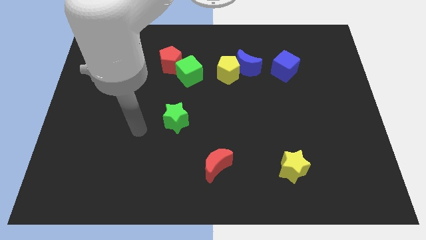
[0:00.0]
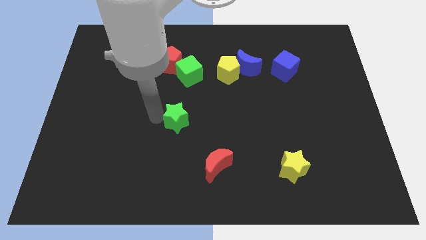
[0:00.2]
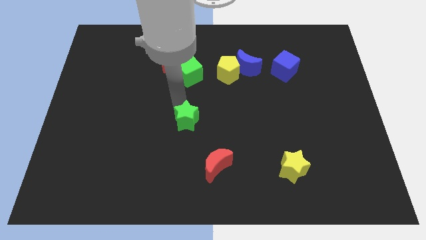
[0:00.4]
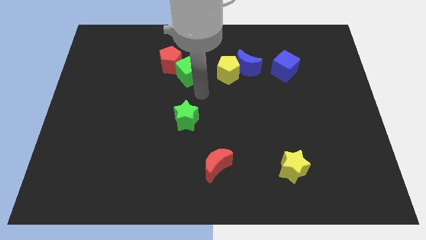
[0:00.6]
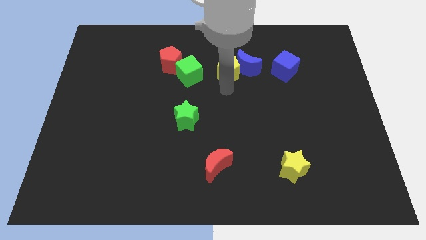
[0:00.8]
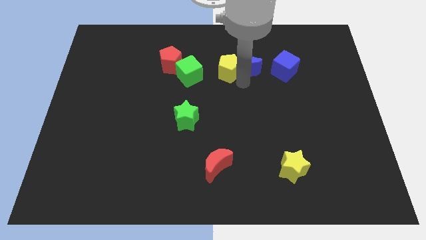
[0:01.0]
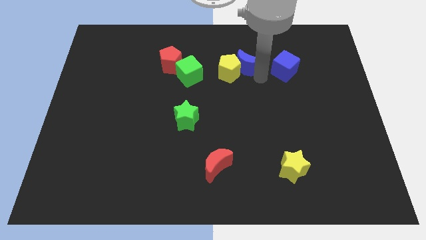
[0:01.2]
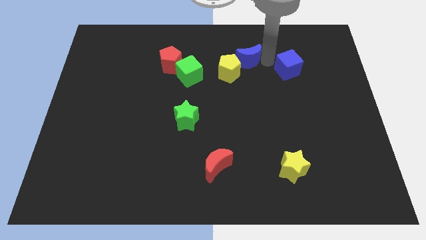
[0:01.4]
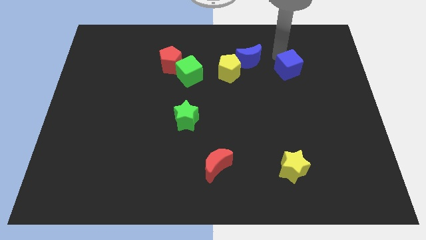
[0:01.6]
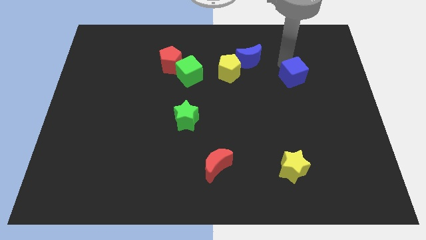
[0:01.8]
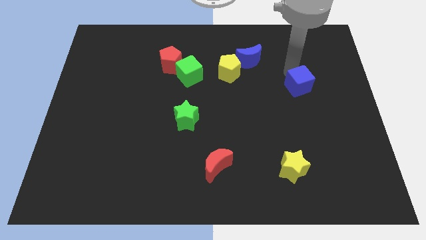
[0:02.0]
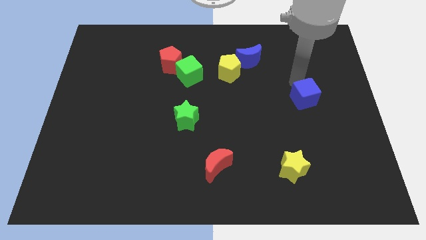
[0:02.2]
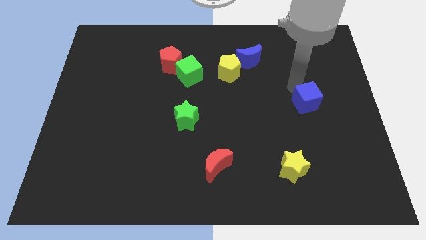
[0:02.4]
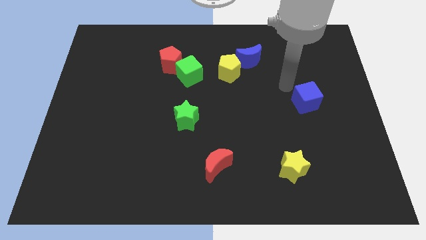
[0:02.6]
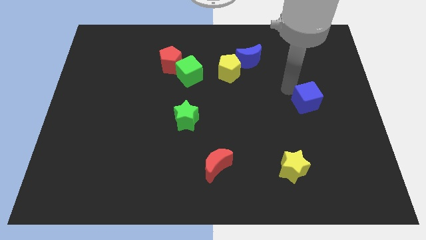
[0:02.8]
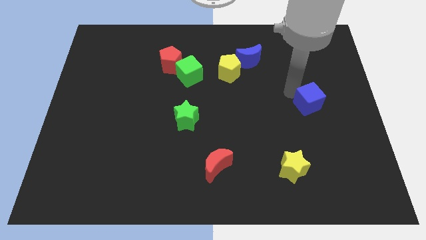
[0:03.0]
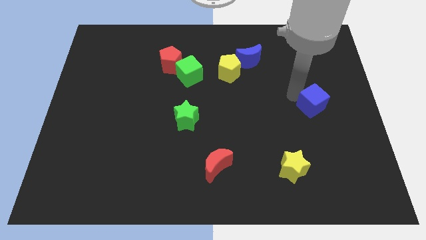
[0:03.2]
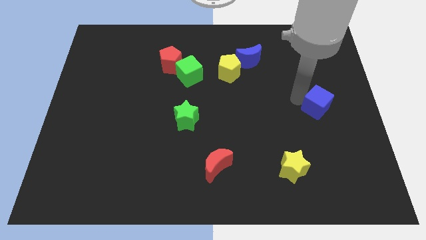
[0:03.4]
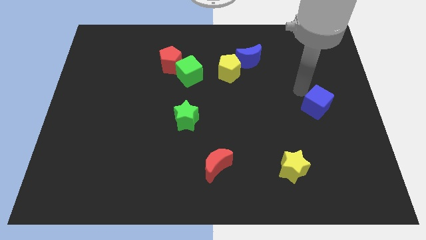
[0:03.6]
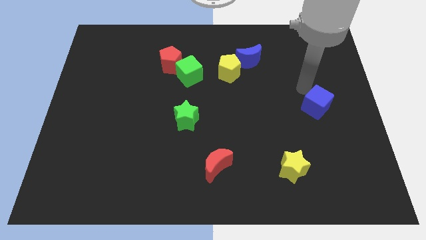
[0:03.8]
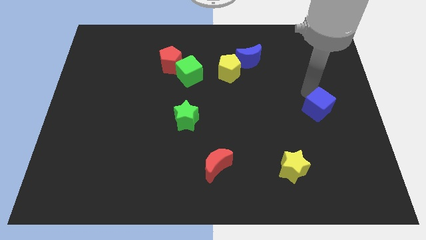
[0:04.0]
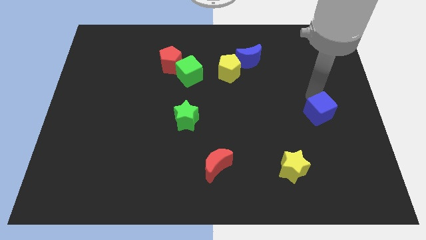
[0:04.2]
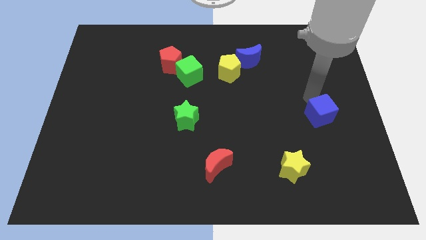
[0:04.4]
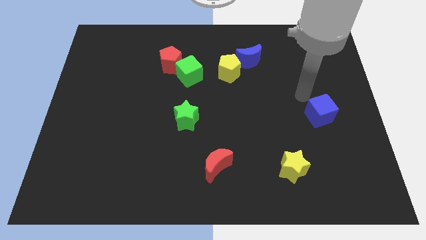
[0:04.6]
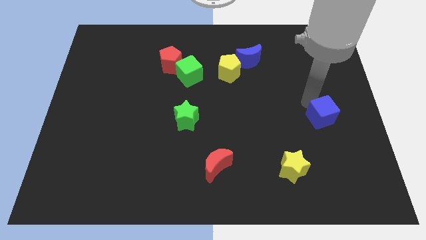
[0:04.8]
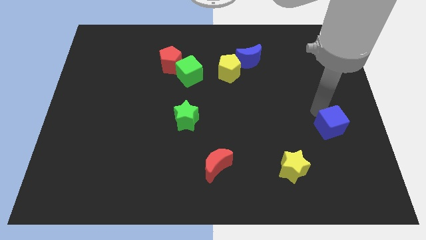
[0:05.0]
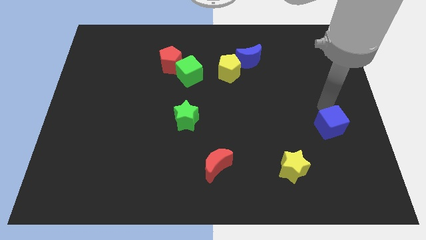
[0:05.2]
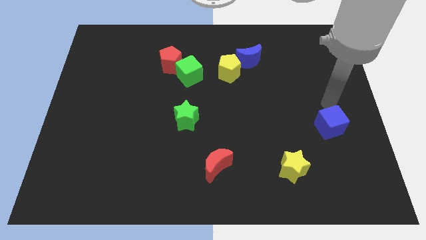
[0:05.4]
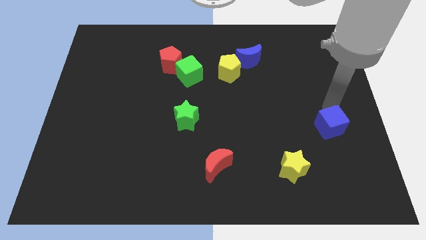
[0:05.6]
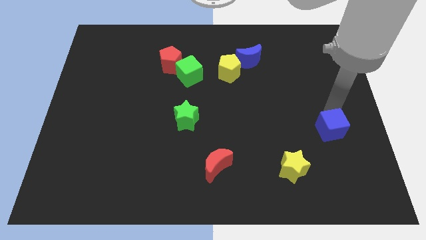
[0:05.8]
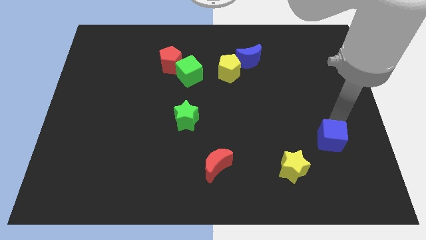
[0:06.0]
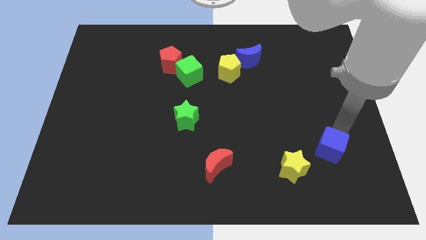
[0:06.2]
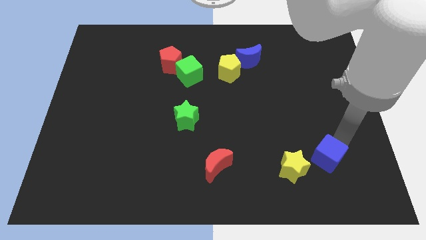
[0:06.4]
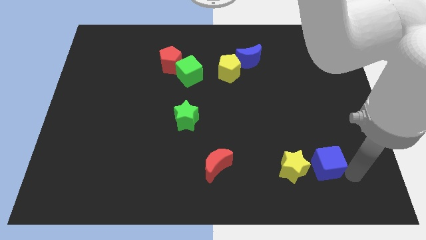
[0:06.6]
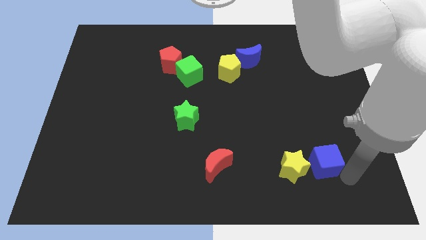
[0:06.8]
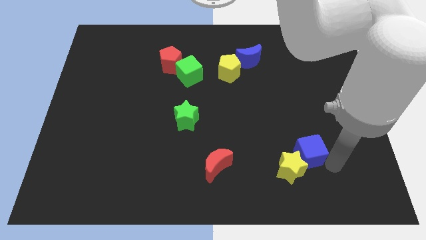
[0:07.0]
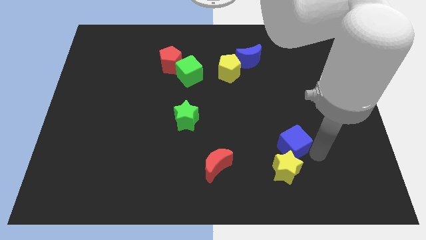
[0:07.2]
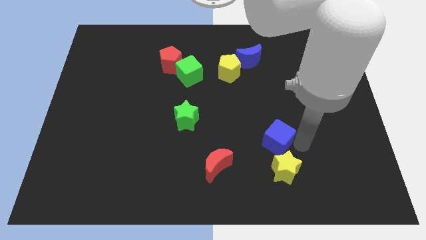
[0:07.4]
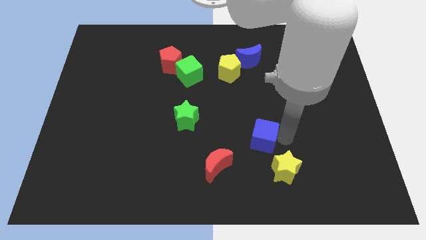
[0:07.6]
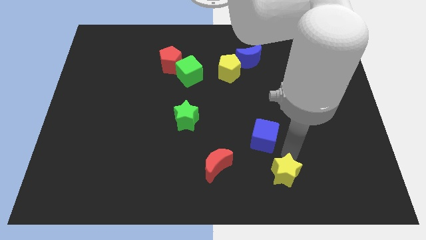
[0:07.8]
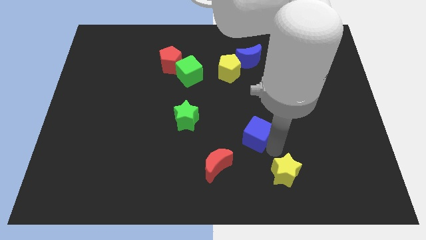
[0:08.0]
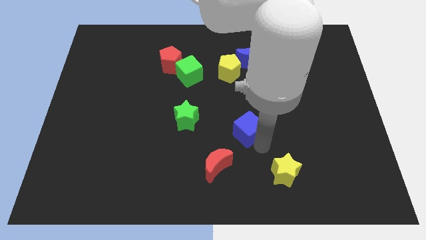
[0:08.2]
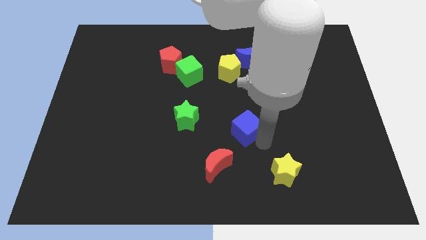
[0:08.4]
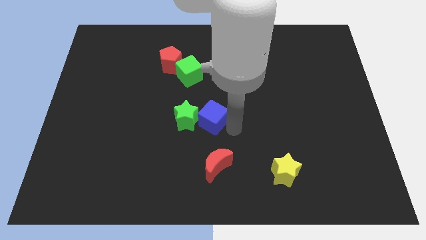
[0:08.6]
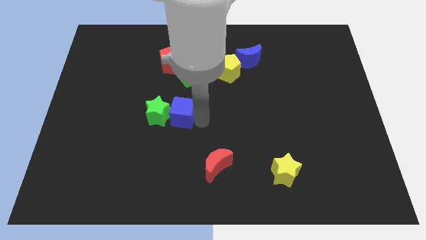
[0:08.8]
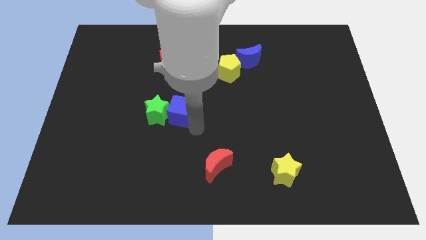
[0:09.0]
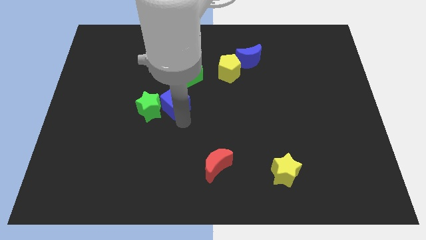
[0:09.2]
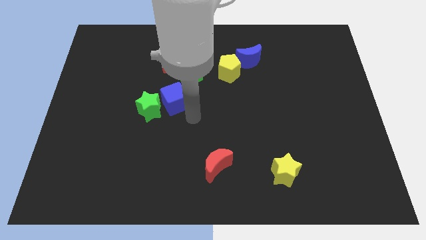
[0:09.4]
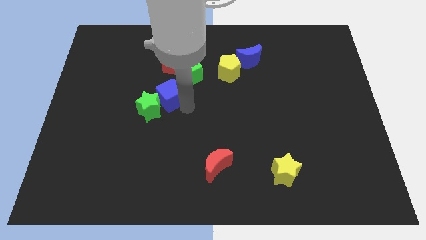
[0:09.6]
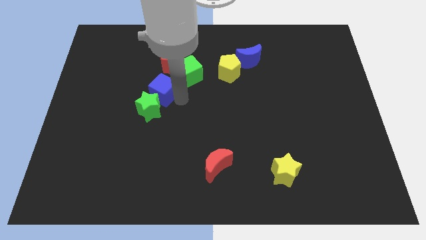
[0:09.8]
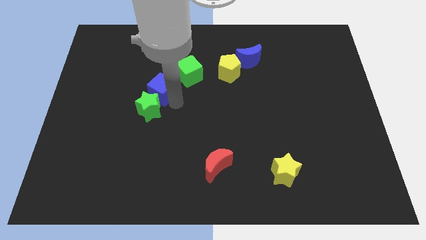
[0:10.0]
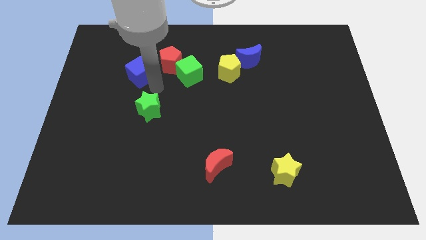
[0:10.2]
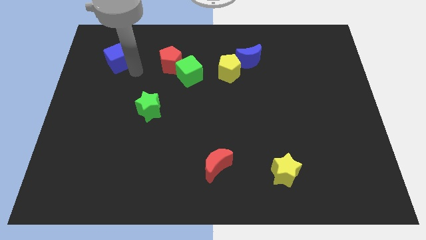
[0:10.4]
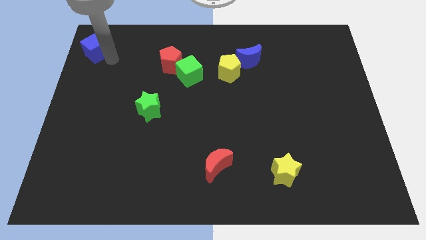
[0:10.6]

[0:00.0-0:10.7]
put the blue cube to the top left corner

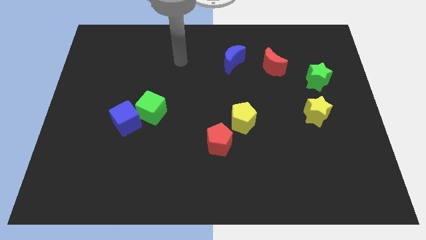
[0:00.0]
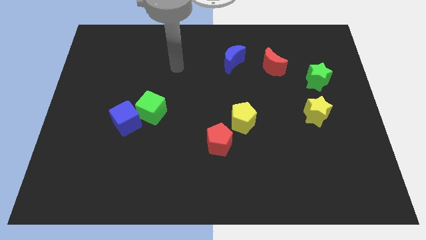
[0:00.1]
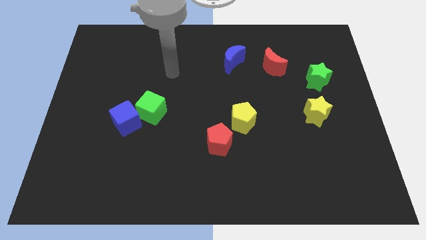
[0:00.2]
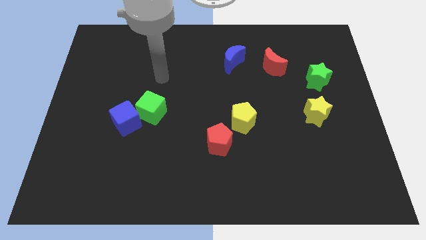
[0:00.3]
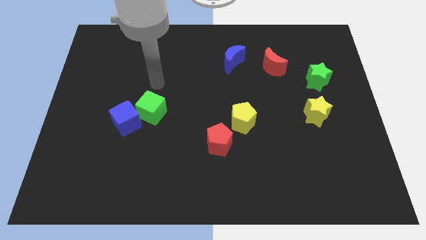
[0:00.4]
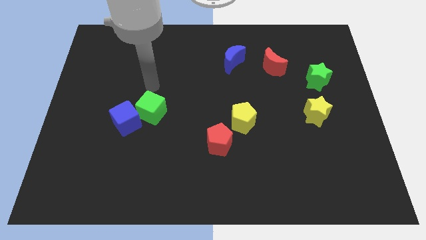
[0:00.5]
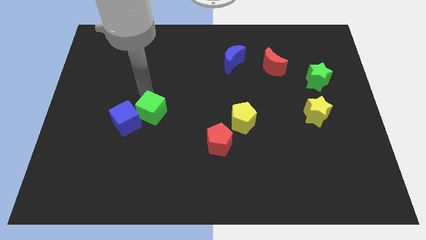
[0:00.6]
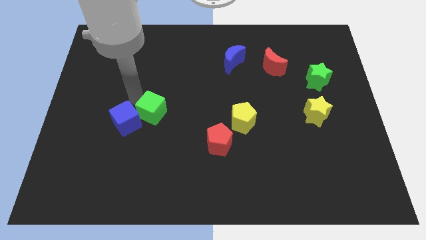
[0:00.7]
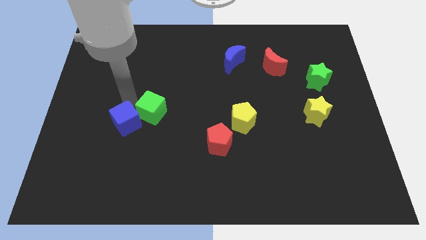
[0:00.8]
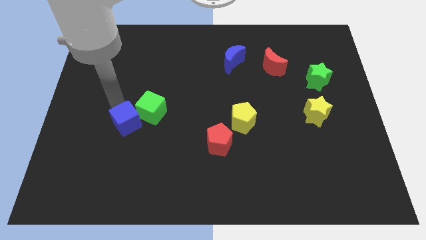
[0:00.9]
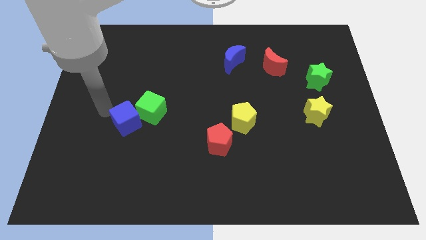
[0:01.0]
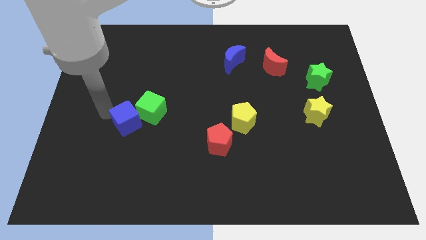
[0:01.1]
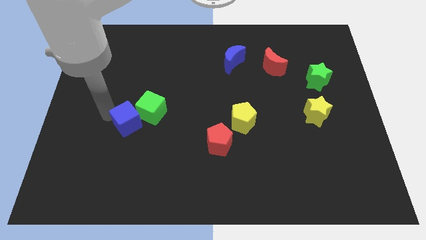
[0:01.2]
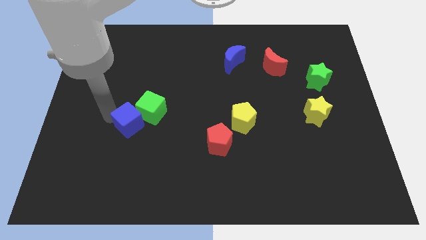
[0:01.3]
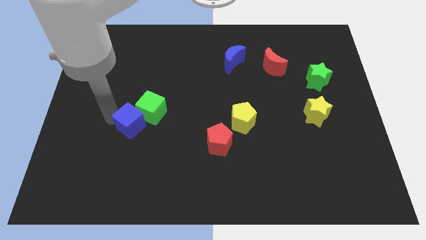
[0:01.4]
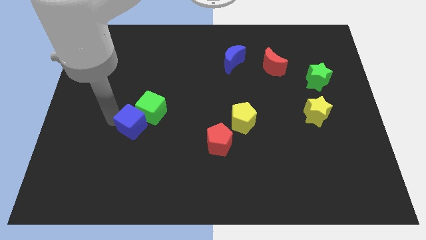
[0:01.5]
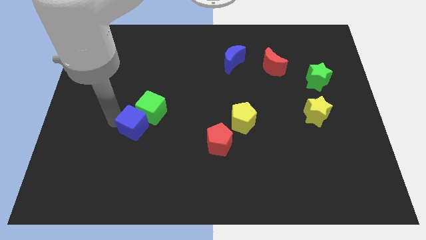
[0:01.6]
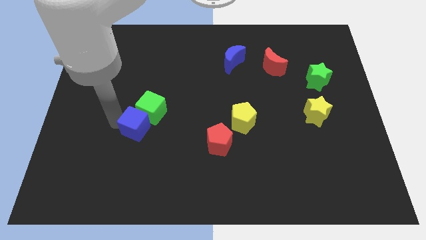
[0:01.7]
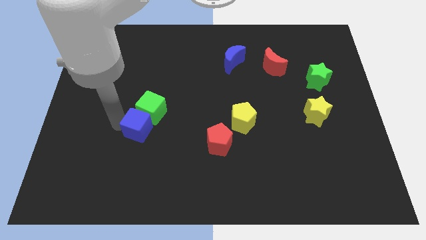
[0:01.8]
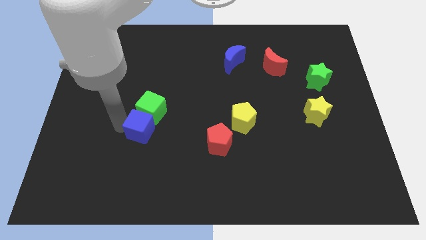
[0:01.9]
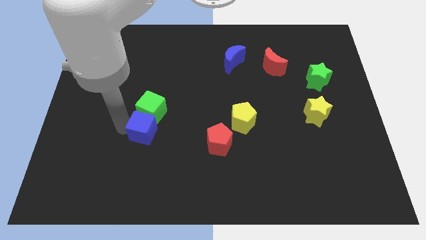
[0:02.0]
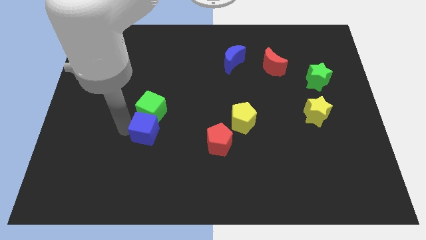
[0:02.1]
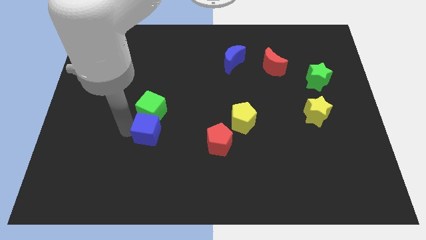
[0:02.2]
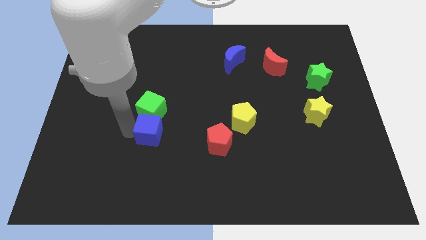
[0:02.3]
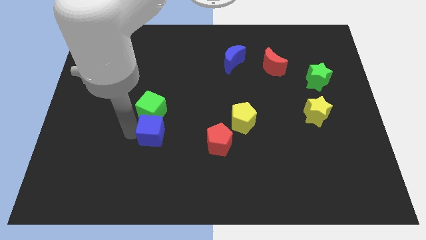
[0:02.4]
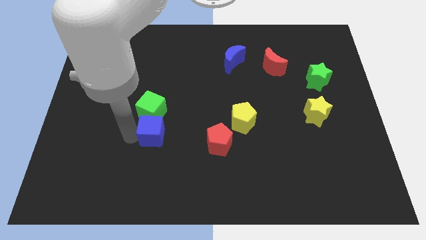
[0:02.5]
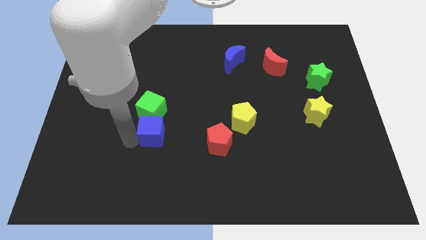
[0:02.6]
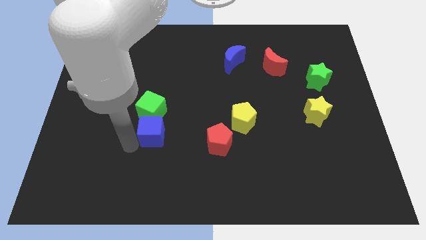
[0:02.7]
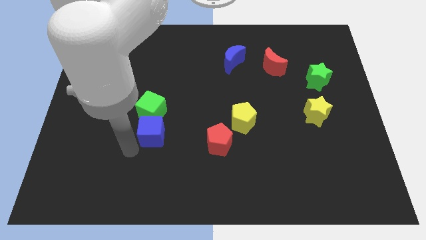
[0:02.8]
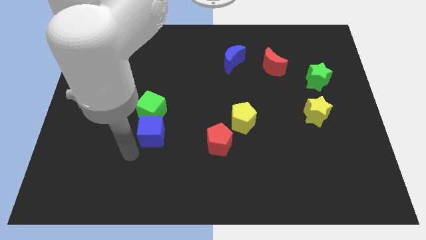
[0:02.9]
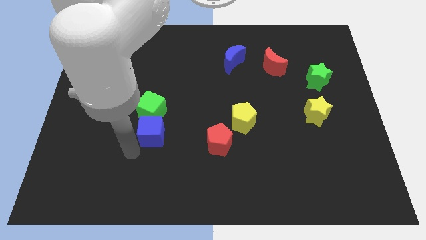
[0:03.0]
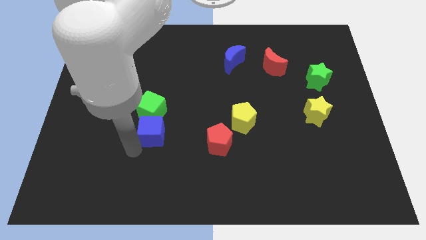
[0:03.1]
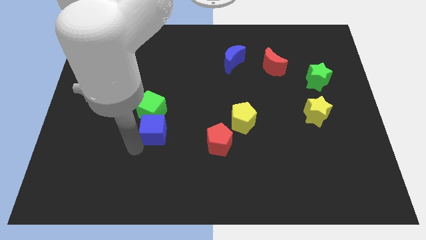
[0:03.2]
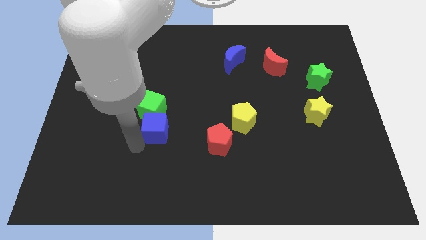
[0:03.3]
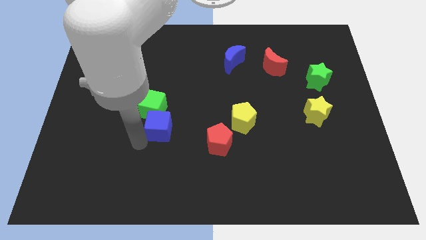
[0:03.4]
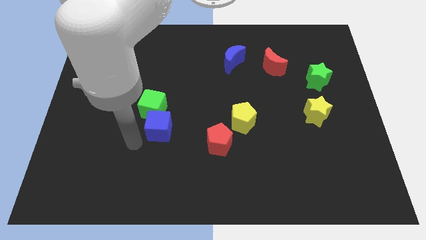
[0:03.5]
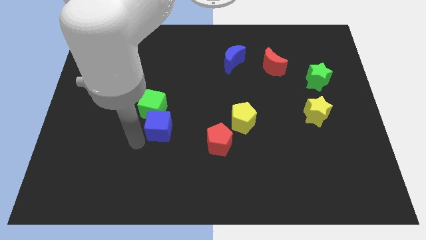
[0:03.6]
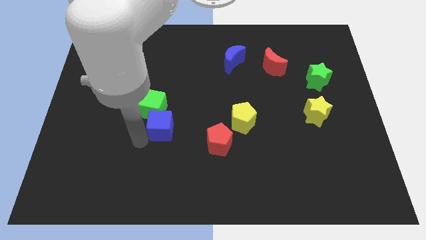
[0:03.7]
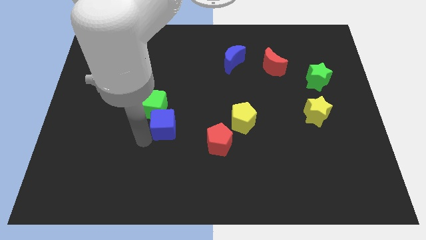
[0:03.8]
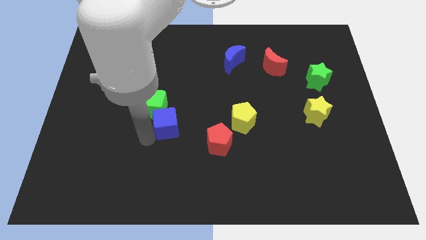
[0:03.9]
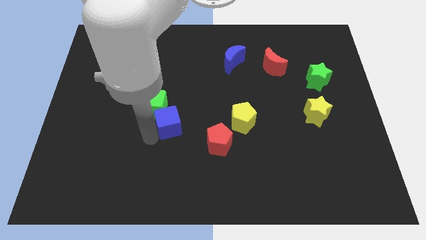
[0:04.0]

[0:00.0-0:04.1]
move the blue cube to the center of the board
